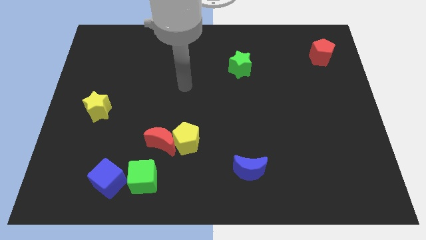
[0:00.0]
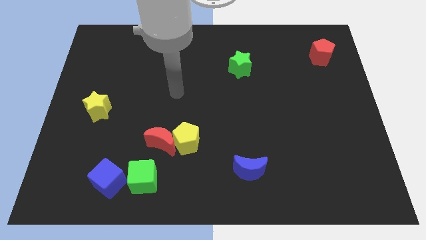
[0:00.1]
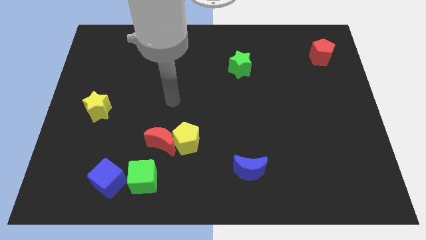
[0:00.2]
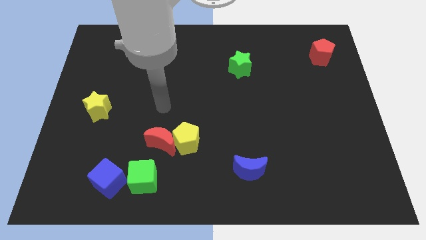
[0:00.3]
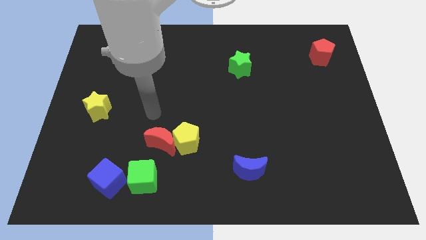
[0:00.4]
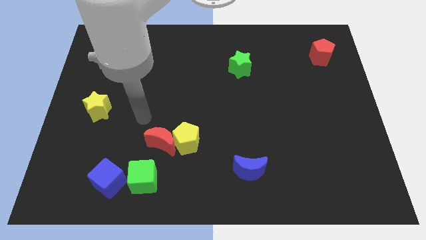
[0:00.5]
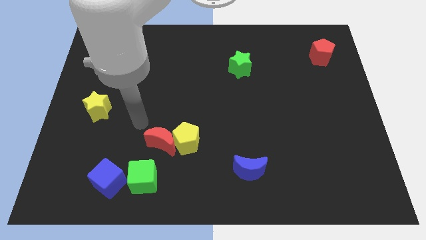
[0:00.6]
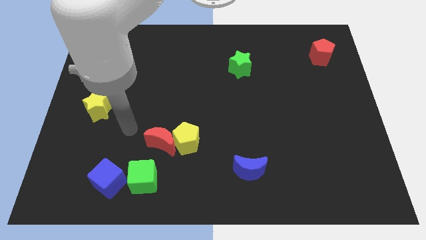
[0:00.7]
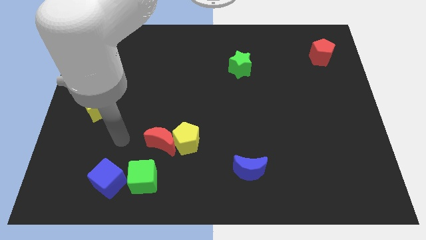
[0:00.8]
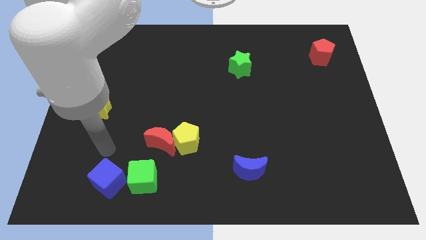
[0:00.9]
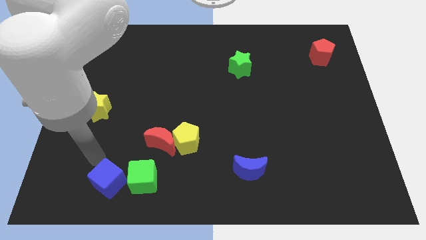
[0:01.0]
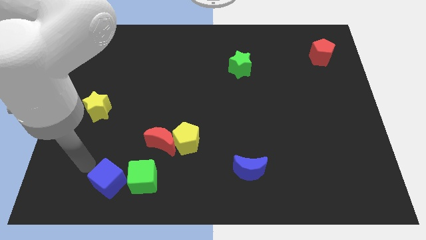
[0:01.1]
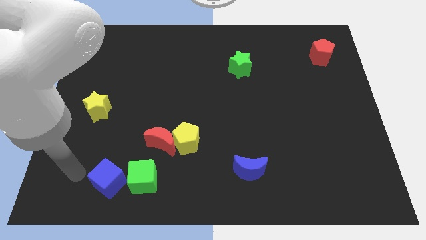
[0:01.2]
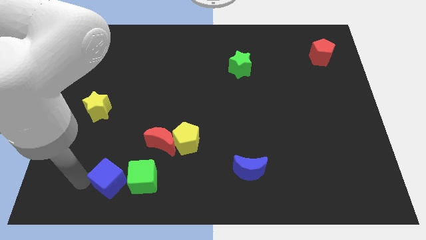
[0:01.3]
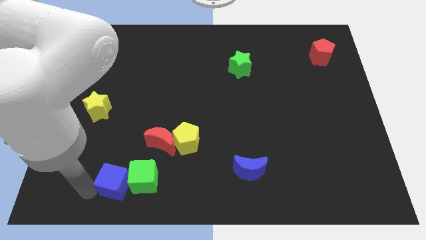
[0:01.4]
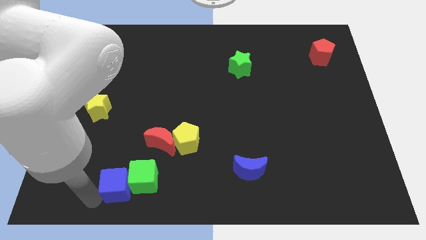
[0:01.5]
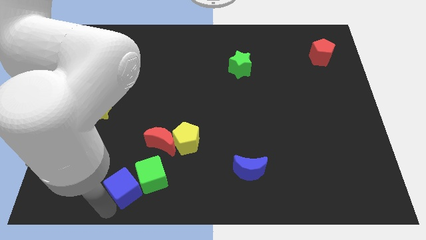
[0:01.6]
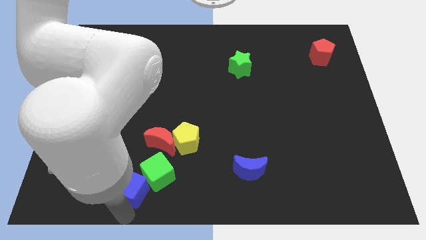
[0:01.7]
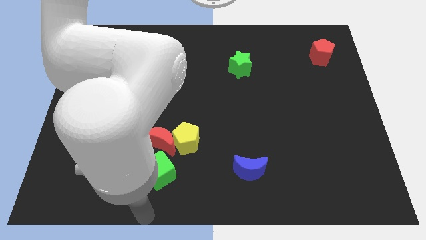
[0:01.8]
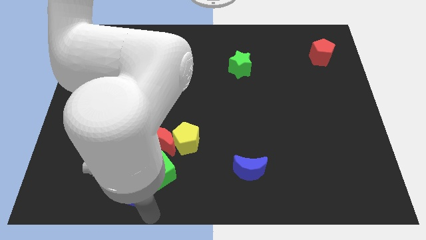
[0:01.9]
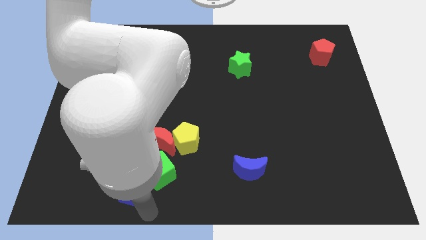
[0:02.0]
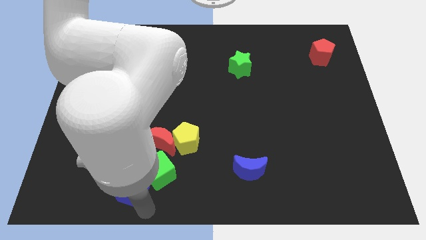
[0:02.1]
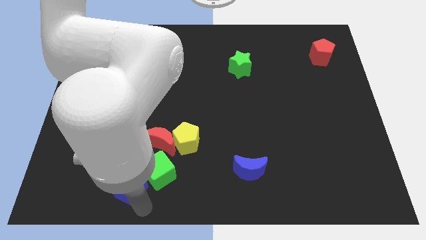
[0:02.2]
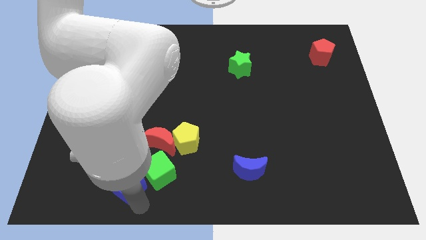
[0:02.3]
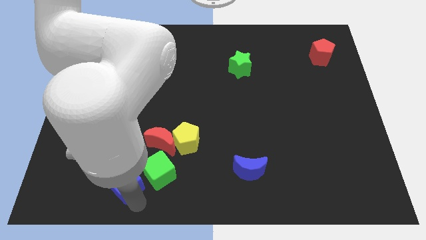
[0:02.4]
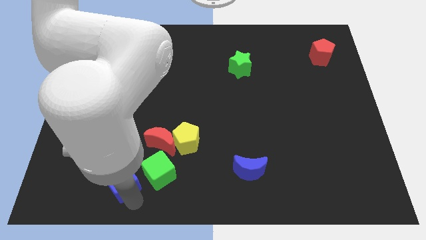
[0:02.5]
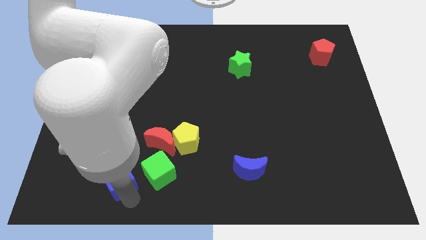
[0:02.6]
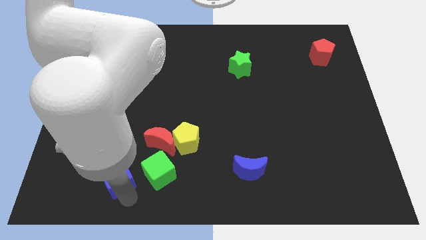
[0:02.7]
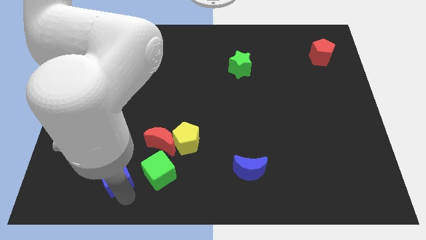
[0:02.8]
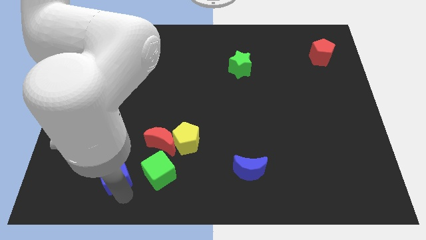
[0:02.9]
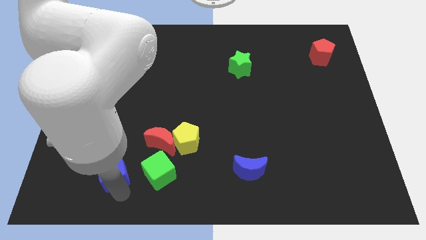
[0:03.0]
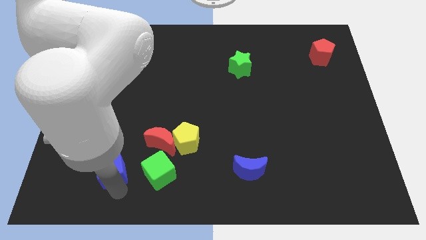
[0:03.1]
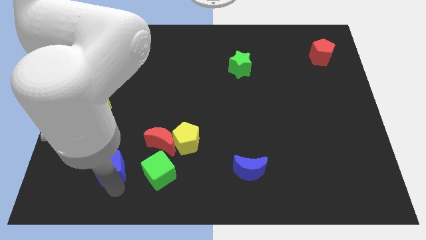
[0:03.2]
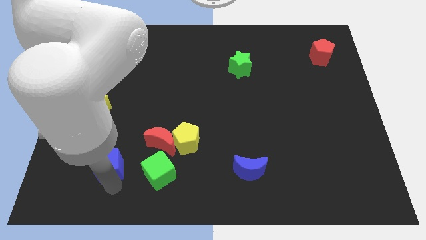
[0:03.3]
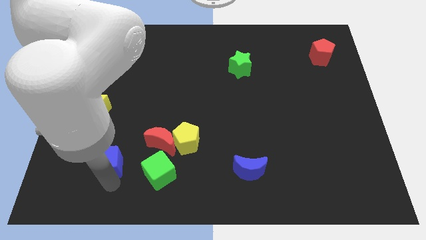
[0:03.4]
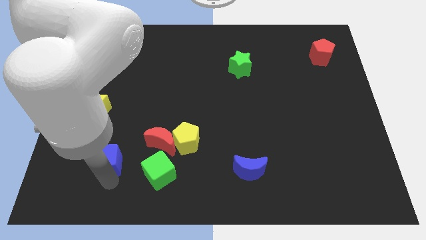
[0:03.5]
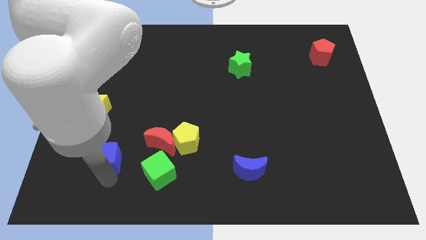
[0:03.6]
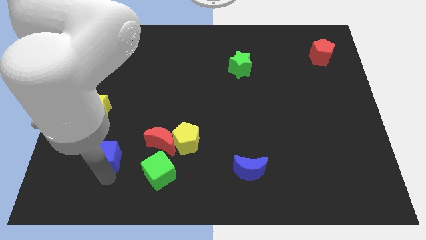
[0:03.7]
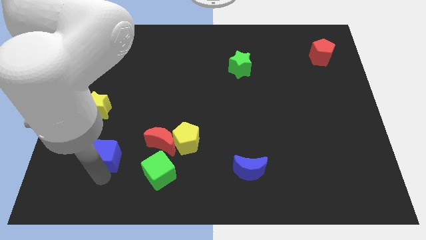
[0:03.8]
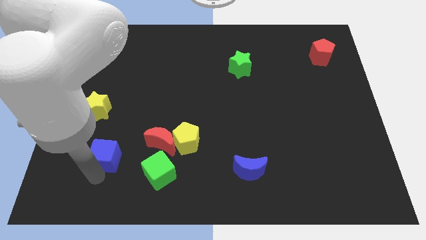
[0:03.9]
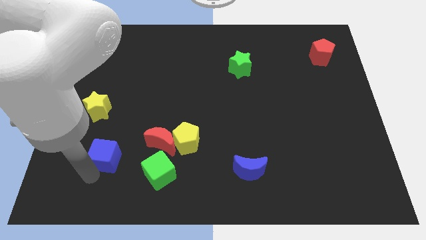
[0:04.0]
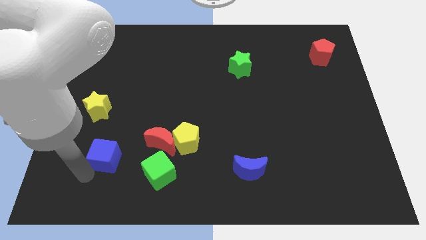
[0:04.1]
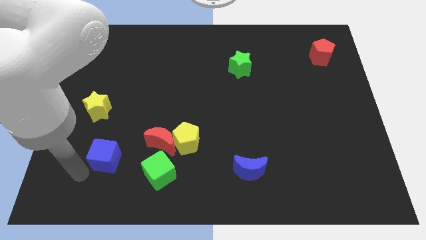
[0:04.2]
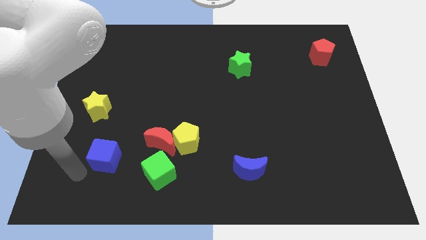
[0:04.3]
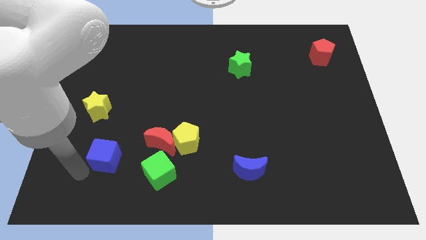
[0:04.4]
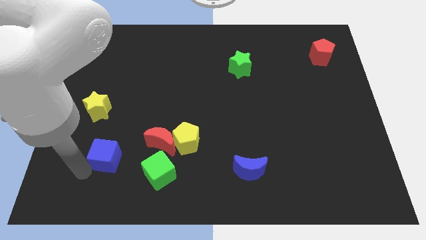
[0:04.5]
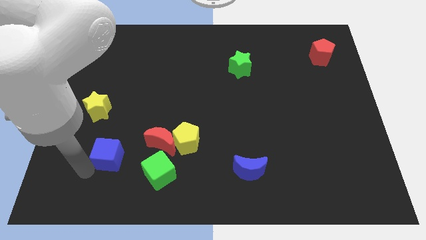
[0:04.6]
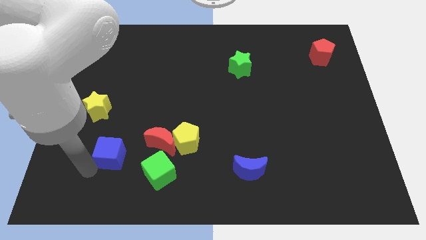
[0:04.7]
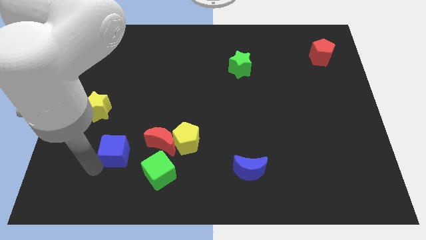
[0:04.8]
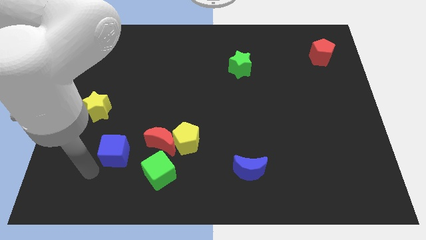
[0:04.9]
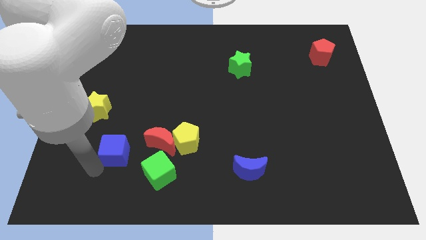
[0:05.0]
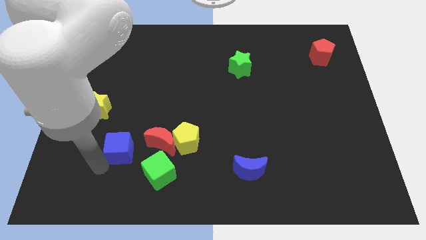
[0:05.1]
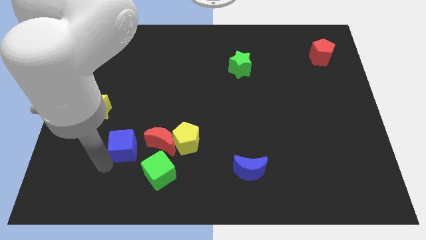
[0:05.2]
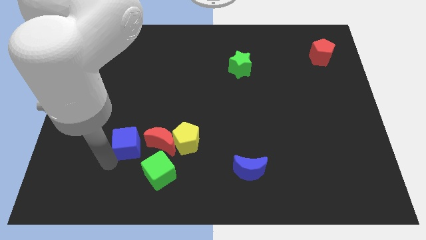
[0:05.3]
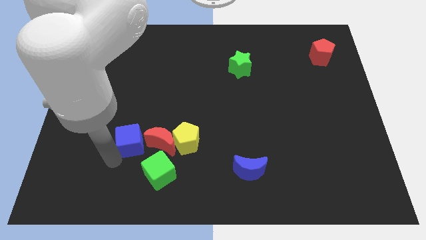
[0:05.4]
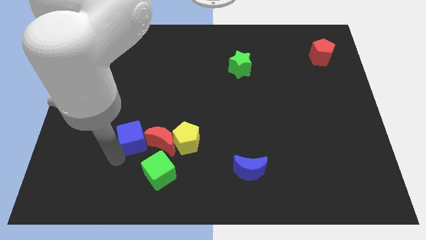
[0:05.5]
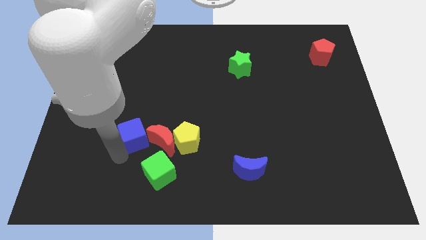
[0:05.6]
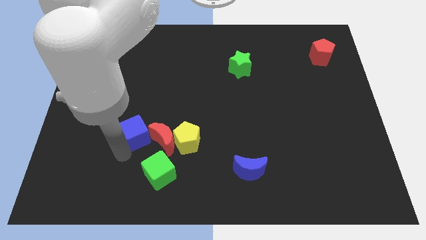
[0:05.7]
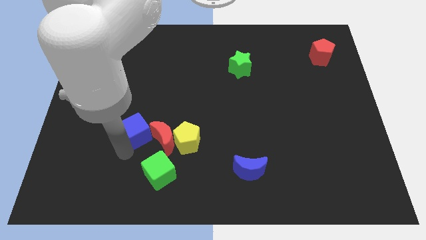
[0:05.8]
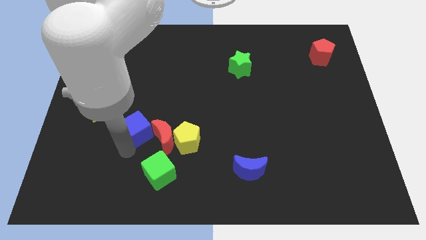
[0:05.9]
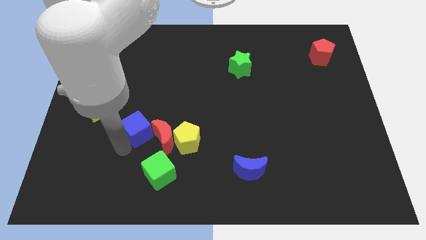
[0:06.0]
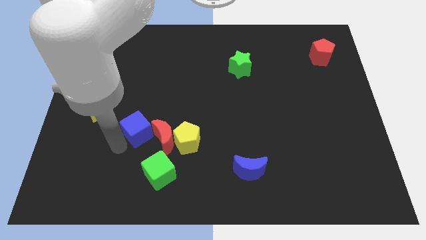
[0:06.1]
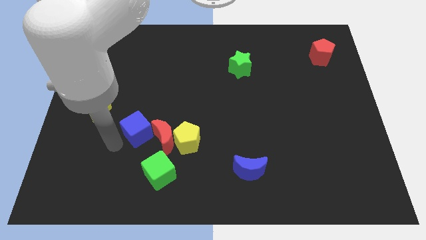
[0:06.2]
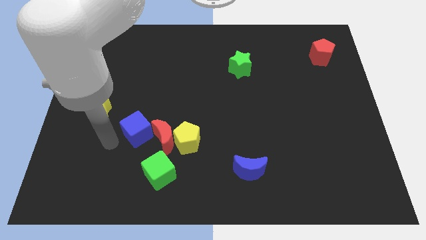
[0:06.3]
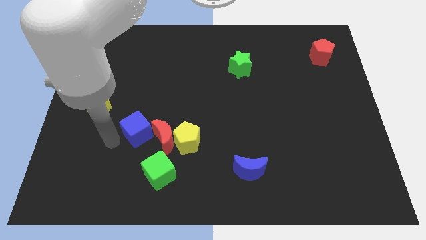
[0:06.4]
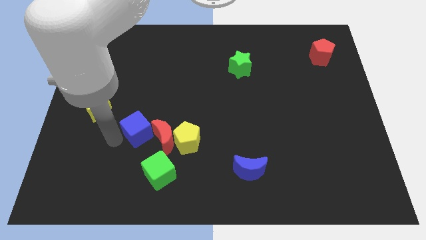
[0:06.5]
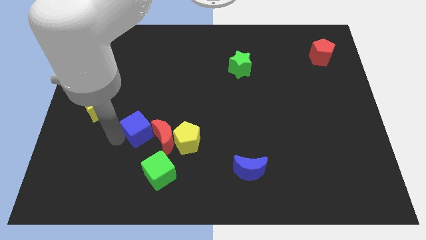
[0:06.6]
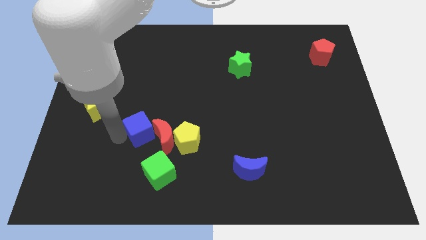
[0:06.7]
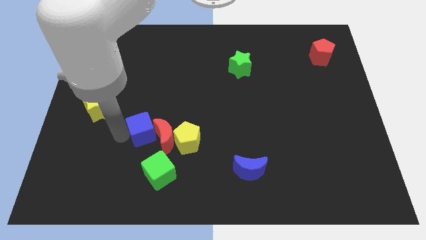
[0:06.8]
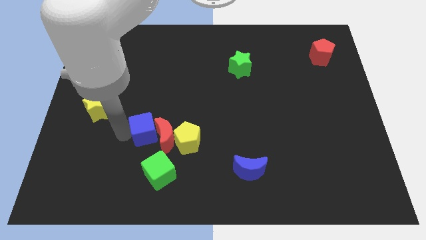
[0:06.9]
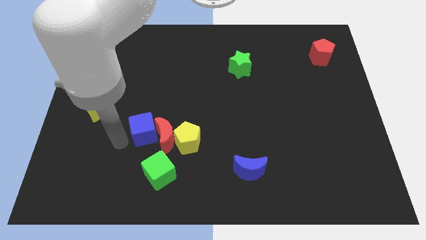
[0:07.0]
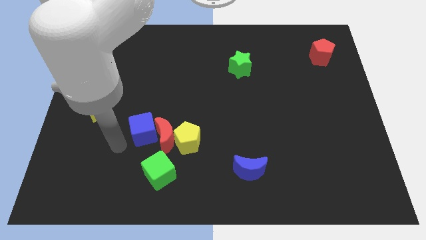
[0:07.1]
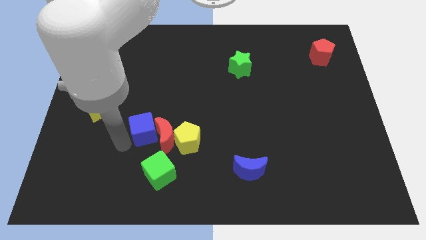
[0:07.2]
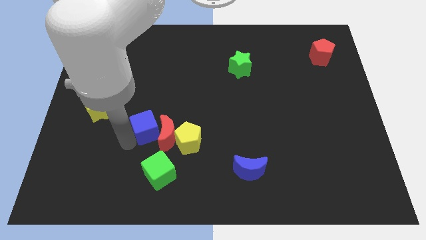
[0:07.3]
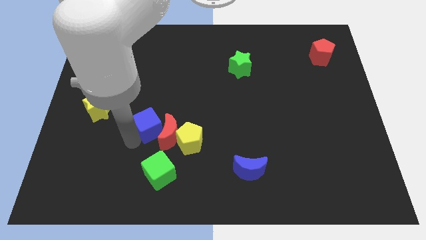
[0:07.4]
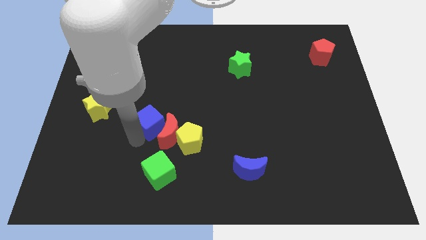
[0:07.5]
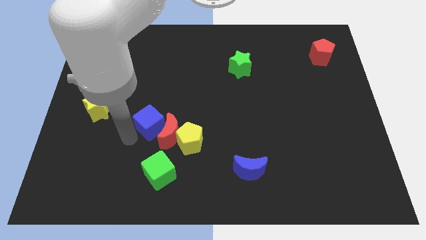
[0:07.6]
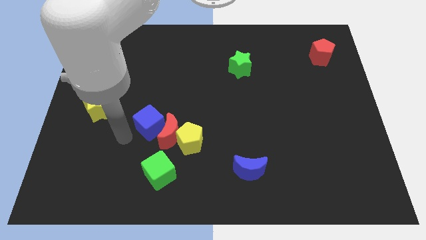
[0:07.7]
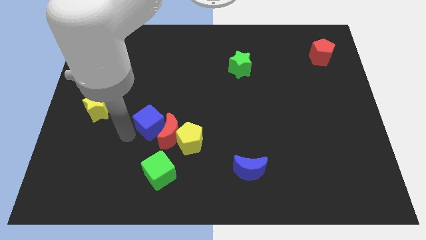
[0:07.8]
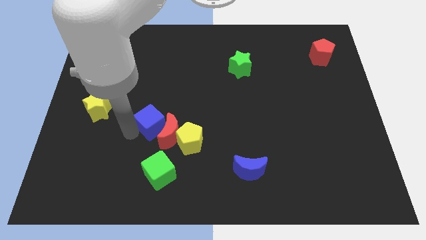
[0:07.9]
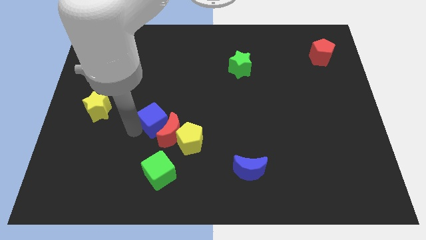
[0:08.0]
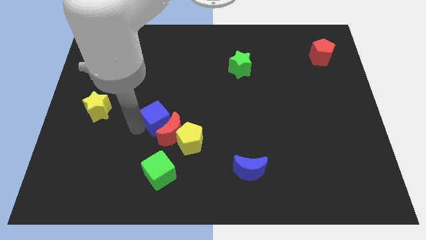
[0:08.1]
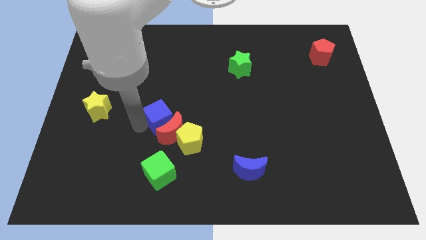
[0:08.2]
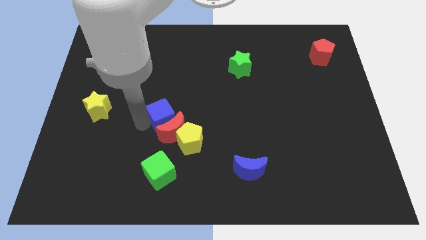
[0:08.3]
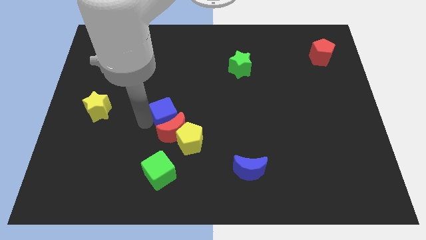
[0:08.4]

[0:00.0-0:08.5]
push the blue cube to the center
